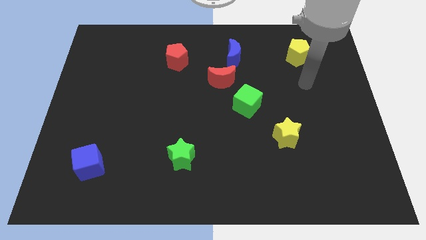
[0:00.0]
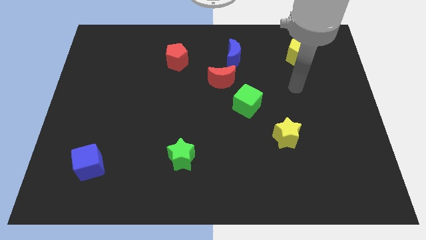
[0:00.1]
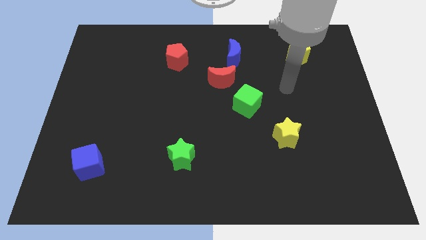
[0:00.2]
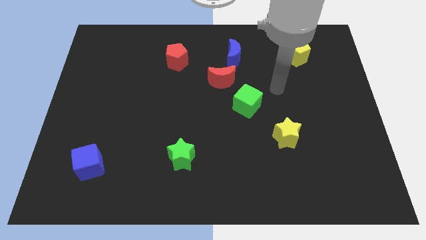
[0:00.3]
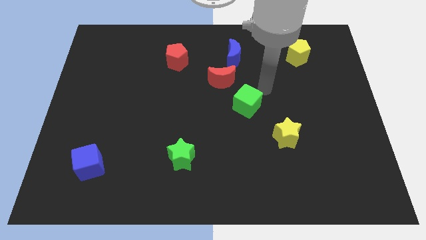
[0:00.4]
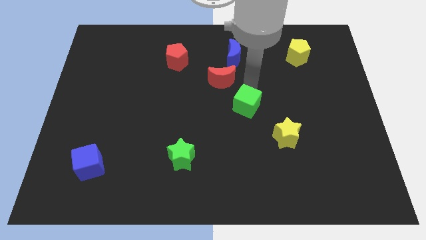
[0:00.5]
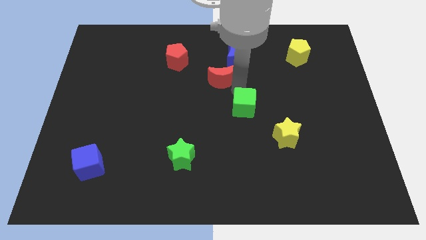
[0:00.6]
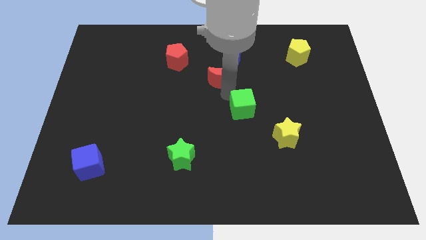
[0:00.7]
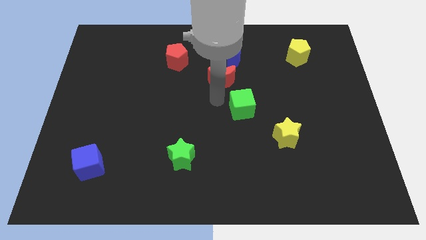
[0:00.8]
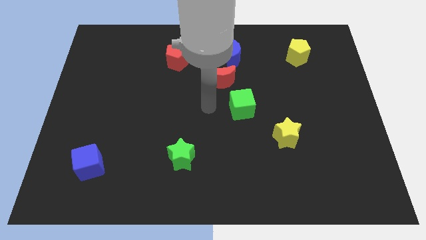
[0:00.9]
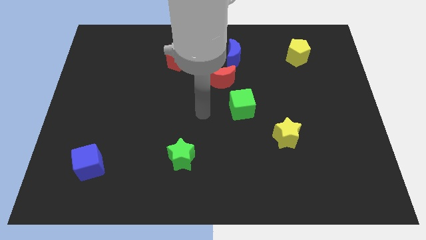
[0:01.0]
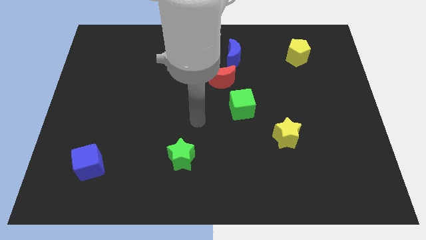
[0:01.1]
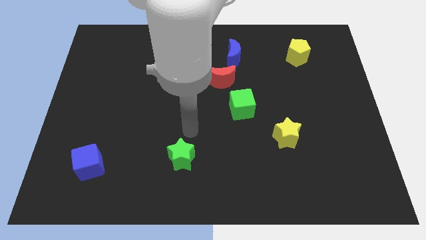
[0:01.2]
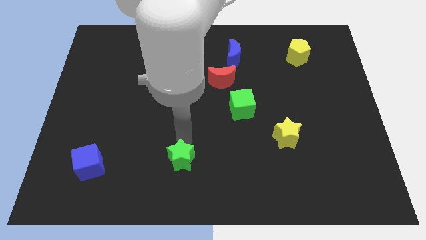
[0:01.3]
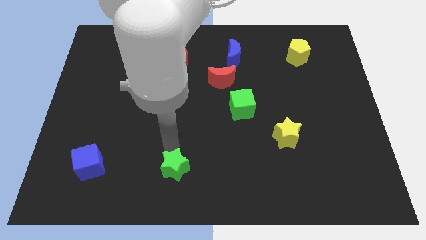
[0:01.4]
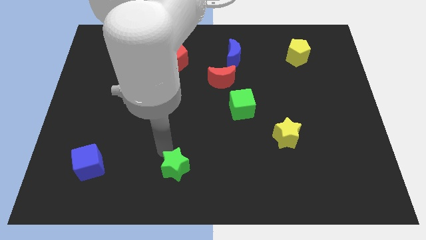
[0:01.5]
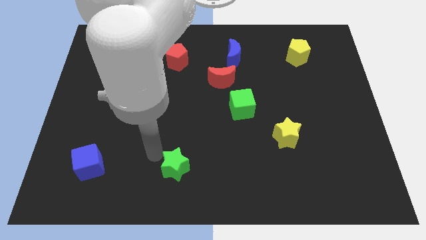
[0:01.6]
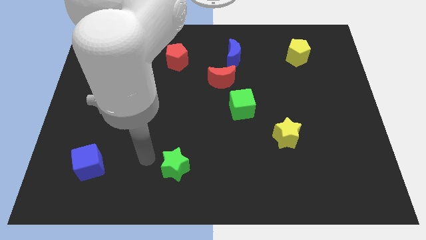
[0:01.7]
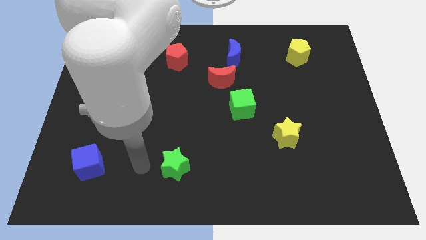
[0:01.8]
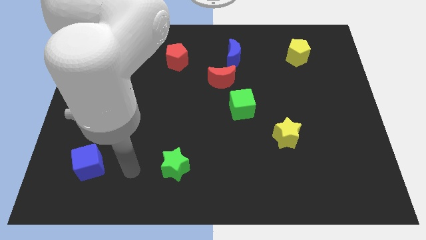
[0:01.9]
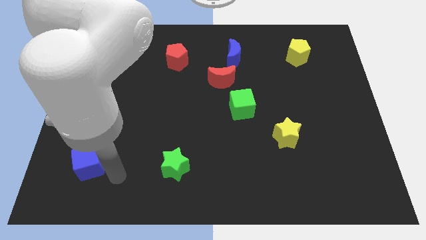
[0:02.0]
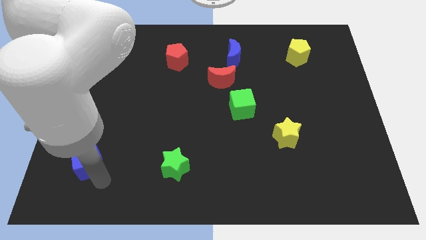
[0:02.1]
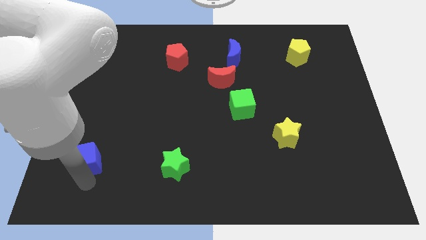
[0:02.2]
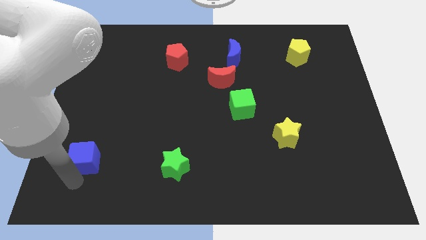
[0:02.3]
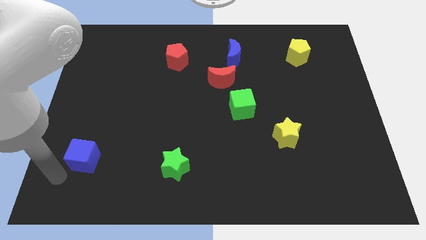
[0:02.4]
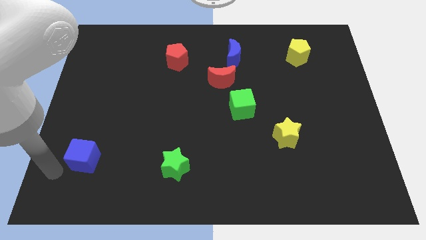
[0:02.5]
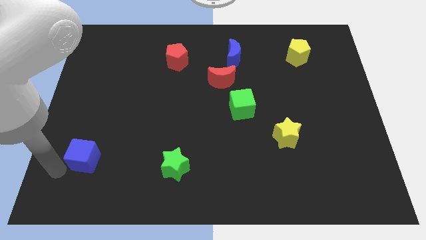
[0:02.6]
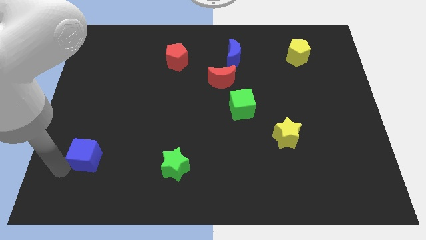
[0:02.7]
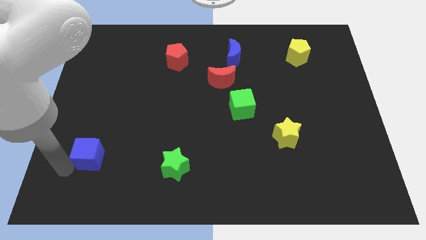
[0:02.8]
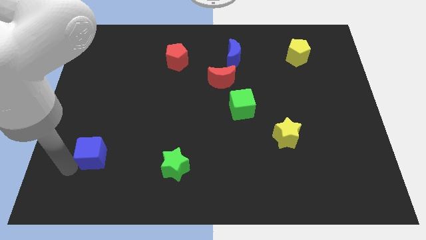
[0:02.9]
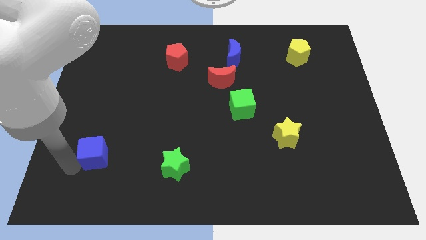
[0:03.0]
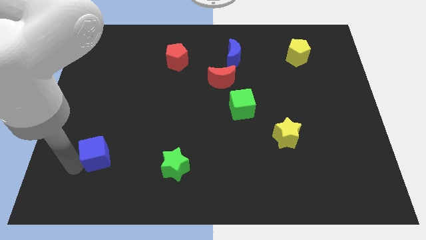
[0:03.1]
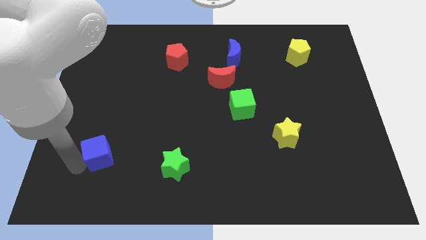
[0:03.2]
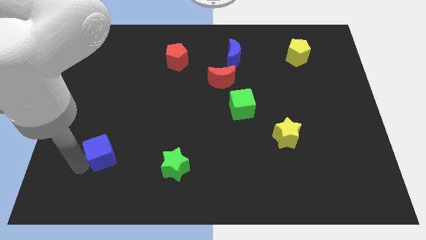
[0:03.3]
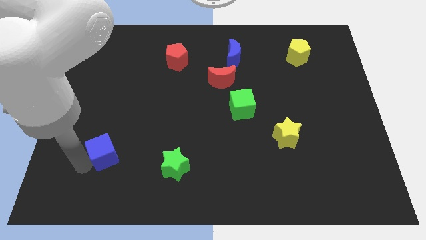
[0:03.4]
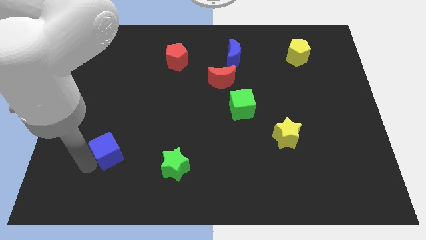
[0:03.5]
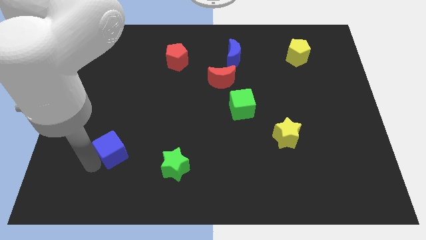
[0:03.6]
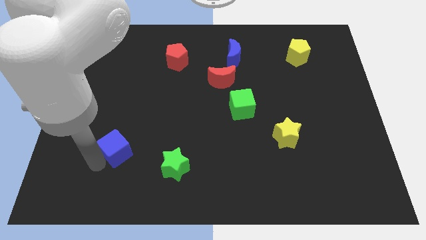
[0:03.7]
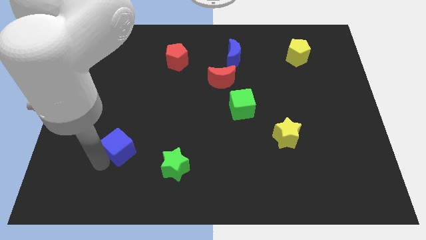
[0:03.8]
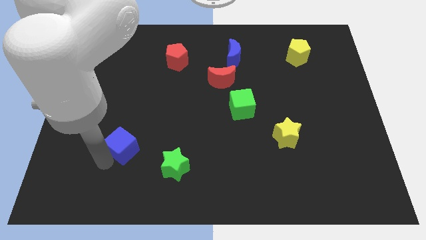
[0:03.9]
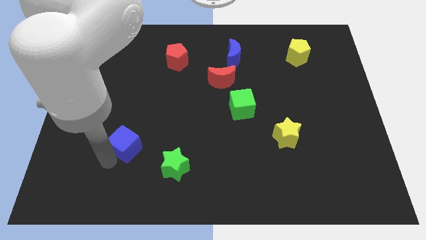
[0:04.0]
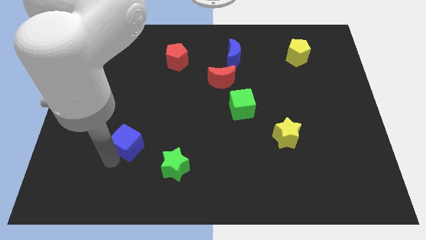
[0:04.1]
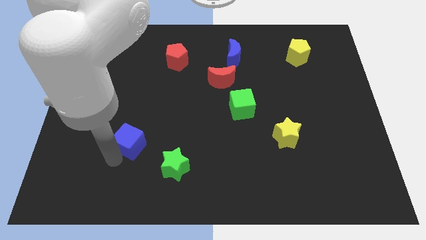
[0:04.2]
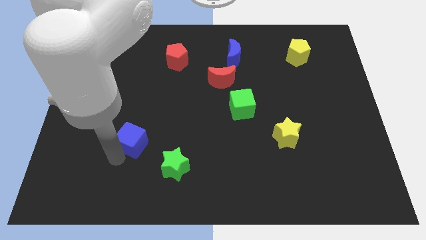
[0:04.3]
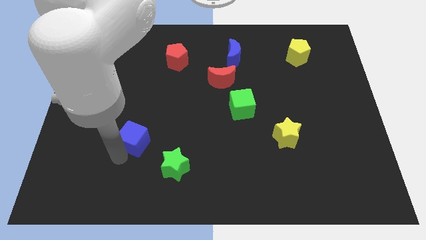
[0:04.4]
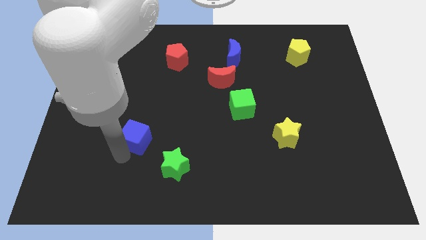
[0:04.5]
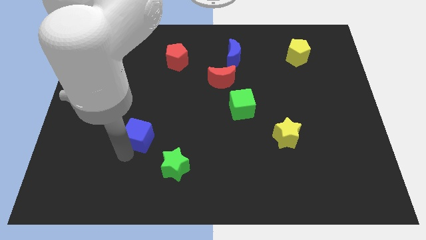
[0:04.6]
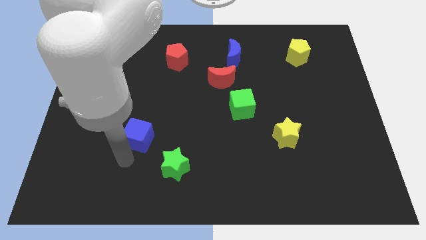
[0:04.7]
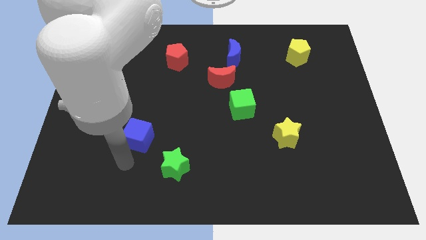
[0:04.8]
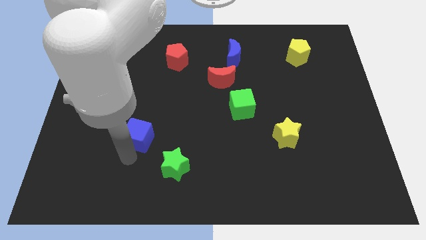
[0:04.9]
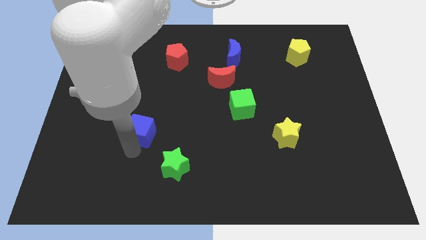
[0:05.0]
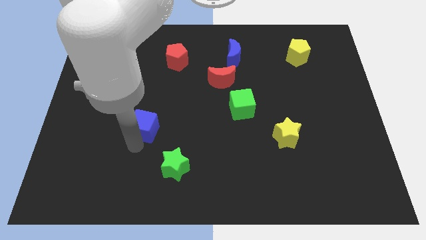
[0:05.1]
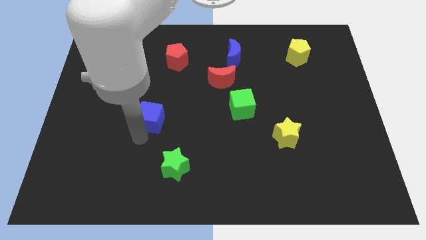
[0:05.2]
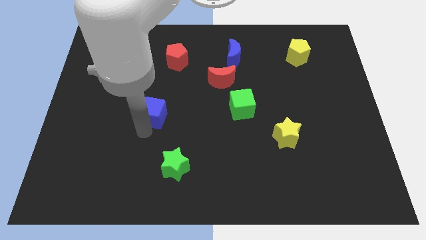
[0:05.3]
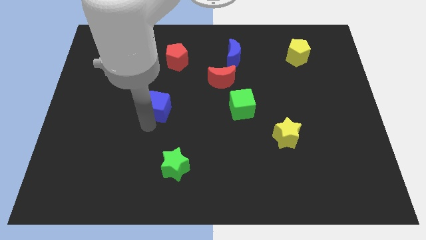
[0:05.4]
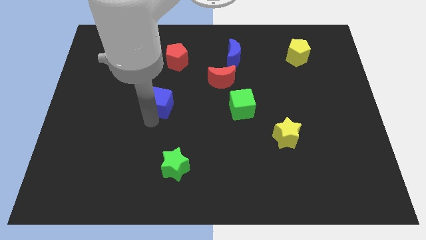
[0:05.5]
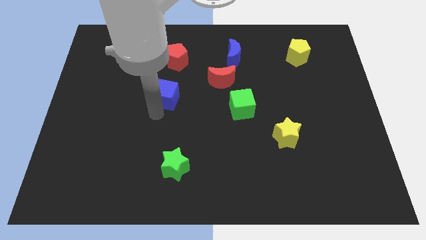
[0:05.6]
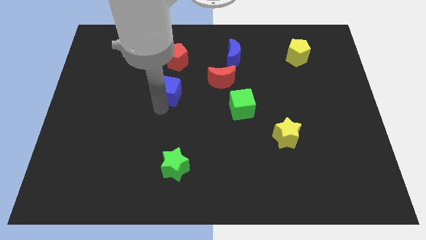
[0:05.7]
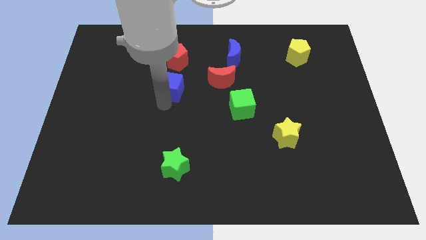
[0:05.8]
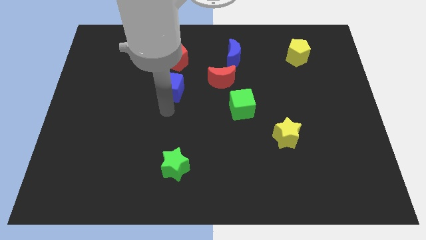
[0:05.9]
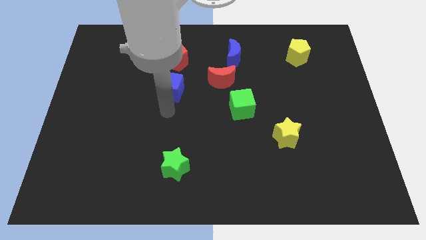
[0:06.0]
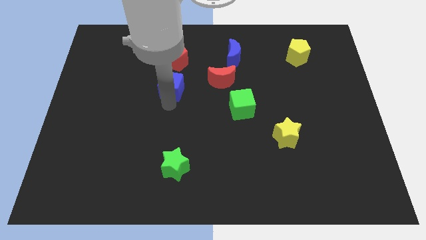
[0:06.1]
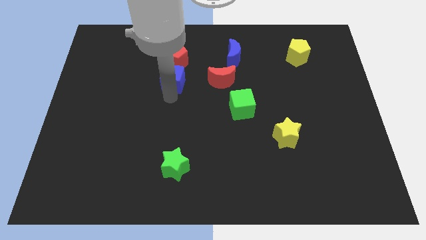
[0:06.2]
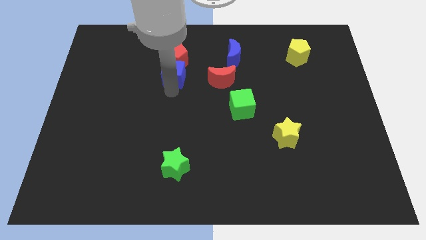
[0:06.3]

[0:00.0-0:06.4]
slide the blue cube towards the red pentagon
